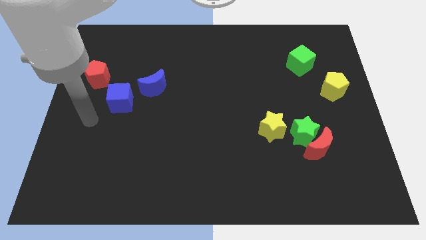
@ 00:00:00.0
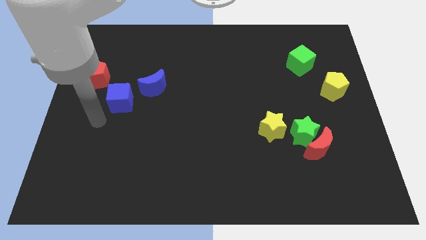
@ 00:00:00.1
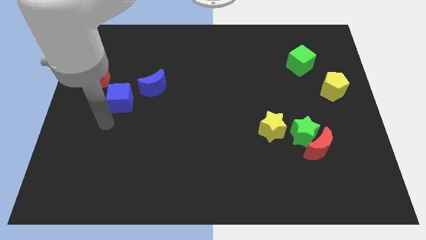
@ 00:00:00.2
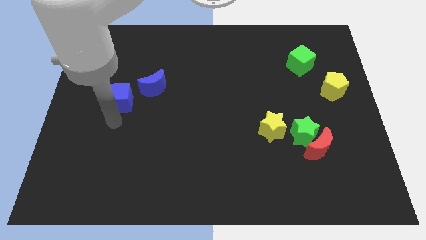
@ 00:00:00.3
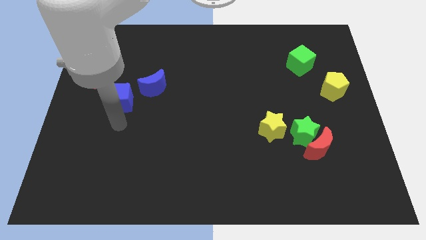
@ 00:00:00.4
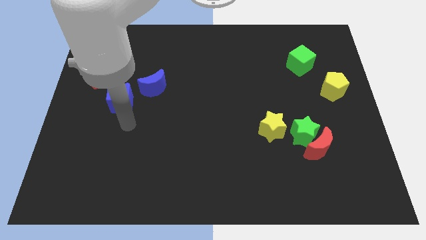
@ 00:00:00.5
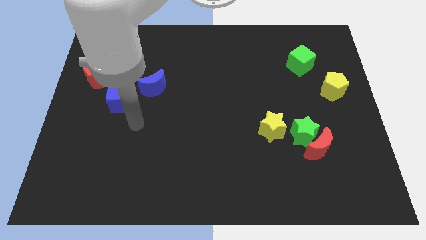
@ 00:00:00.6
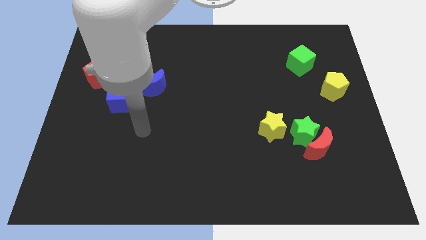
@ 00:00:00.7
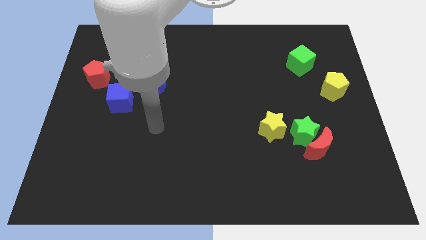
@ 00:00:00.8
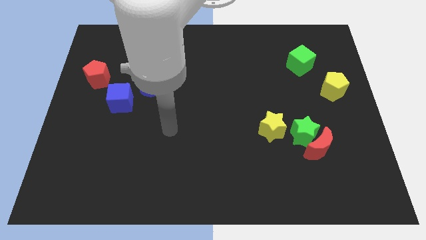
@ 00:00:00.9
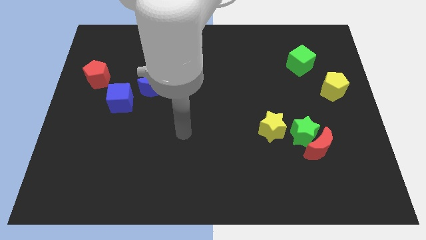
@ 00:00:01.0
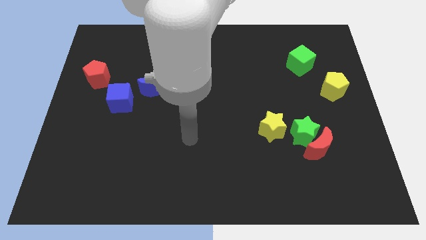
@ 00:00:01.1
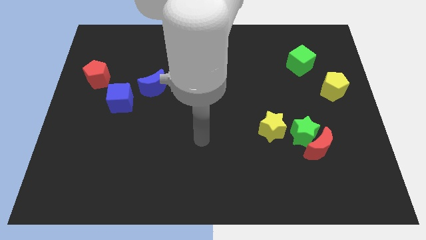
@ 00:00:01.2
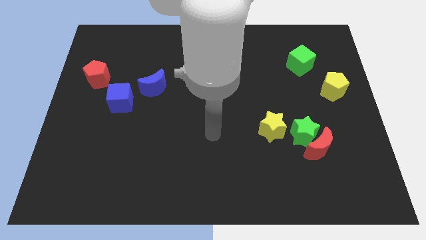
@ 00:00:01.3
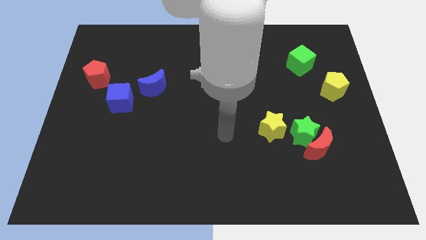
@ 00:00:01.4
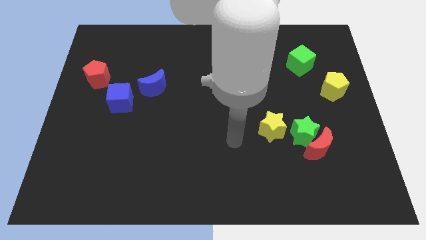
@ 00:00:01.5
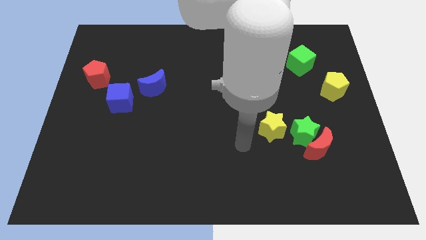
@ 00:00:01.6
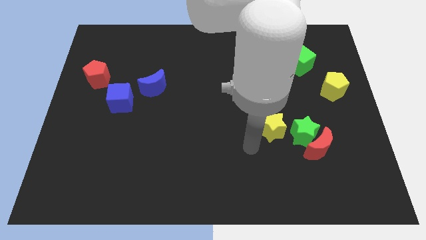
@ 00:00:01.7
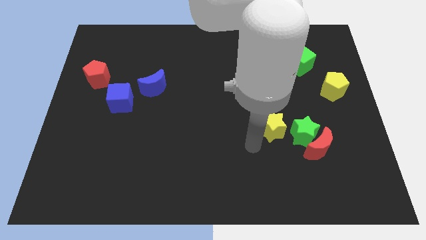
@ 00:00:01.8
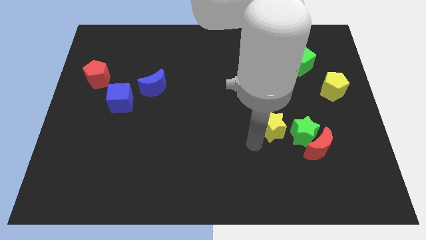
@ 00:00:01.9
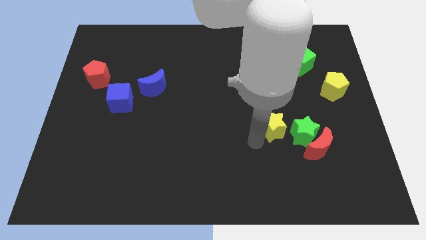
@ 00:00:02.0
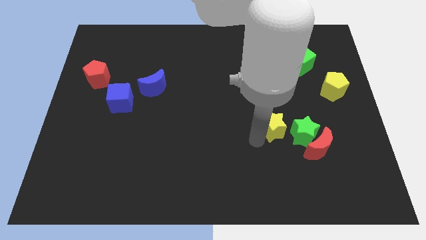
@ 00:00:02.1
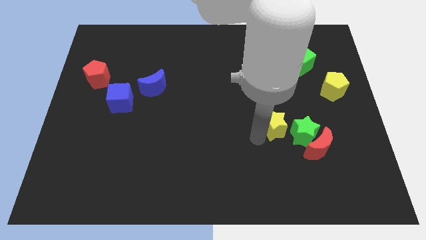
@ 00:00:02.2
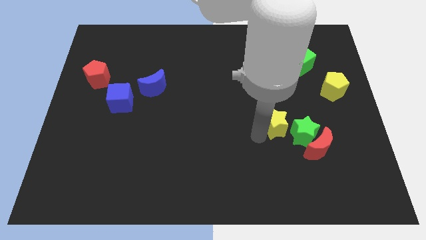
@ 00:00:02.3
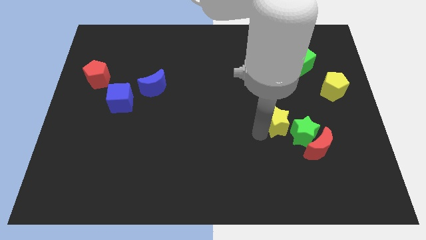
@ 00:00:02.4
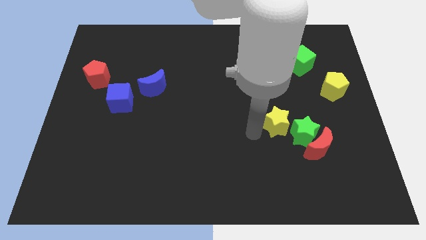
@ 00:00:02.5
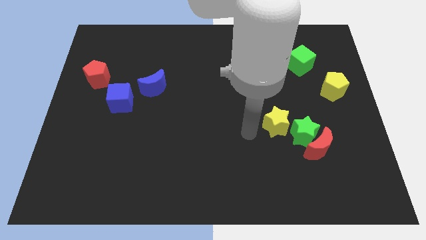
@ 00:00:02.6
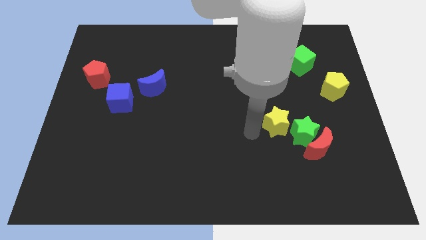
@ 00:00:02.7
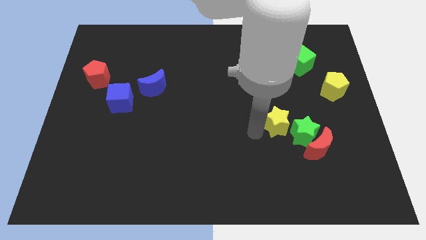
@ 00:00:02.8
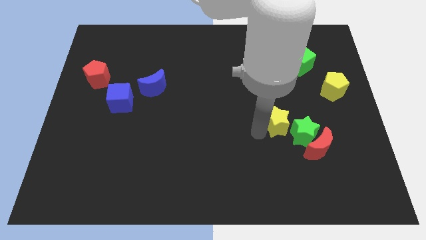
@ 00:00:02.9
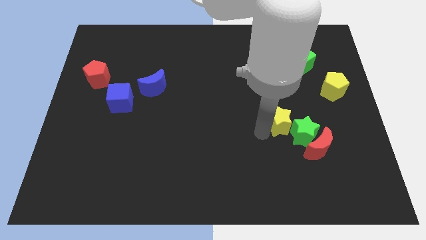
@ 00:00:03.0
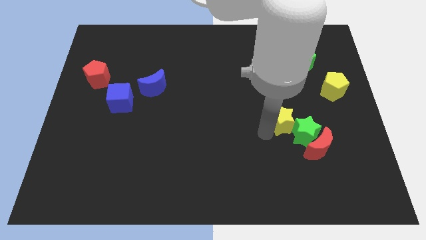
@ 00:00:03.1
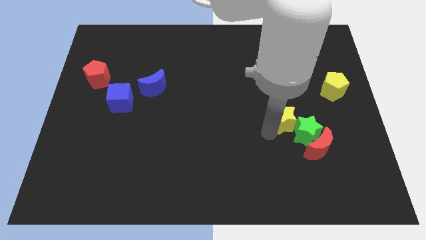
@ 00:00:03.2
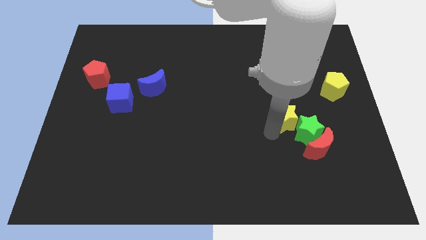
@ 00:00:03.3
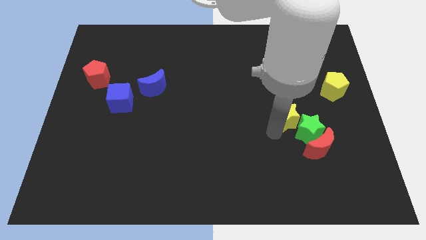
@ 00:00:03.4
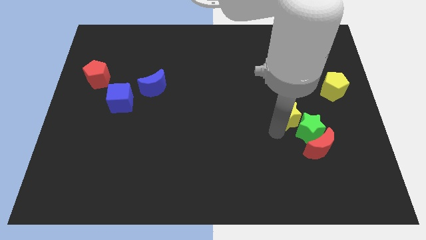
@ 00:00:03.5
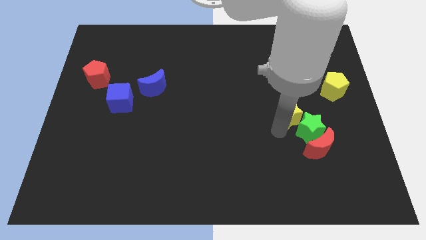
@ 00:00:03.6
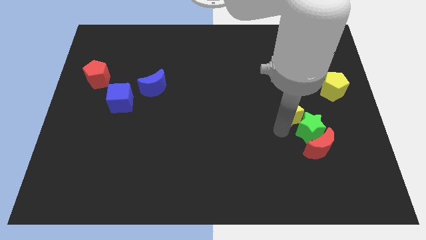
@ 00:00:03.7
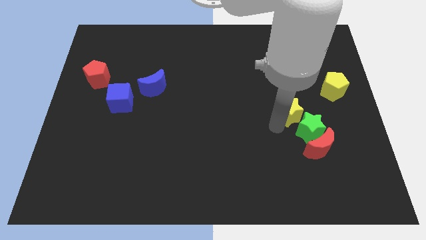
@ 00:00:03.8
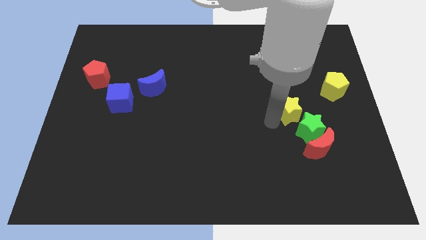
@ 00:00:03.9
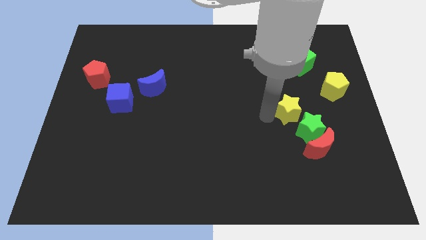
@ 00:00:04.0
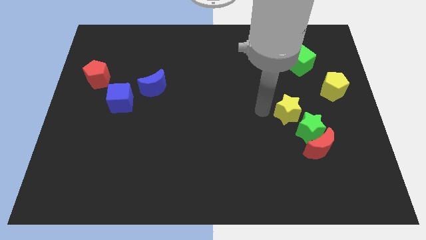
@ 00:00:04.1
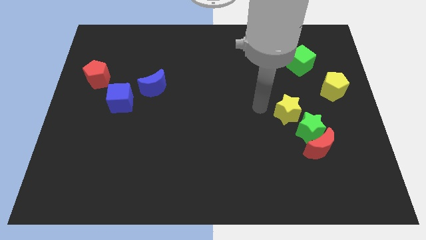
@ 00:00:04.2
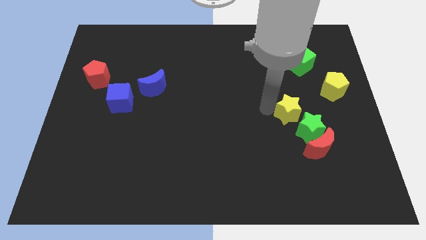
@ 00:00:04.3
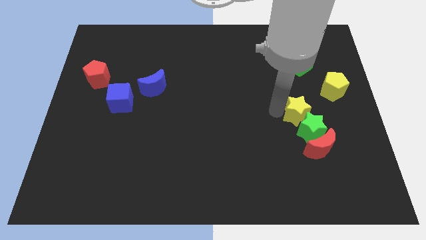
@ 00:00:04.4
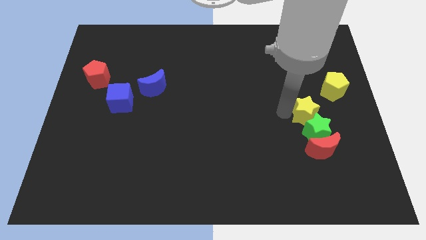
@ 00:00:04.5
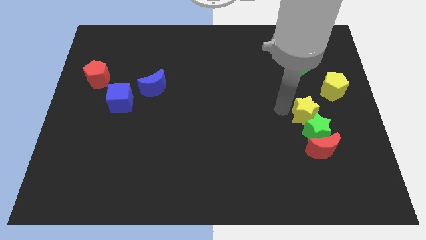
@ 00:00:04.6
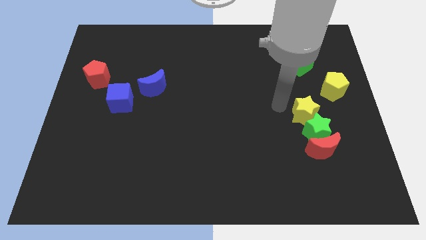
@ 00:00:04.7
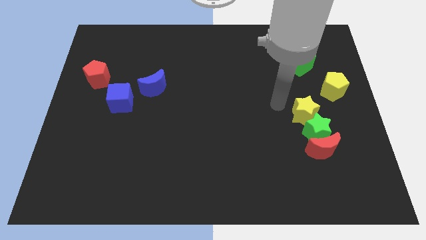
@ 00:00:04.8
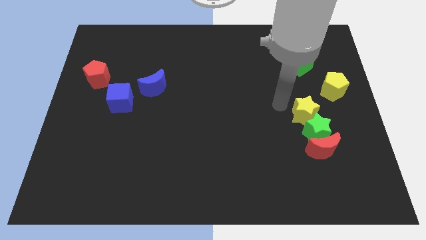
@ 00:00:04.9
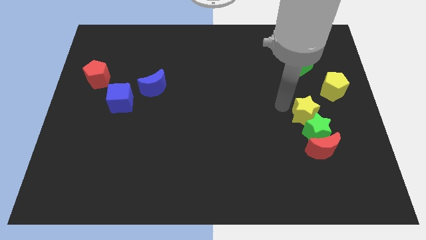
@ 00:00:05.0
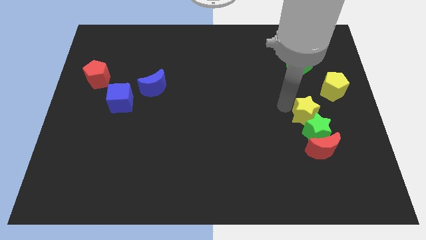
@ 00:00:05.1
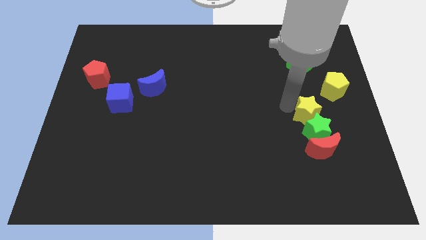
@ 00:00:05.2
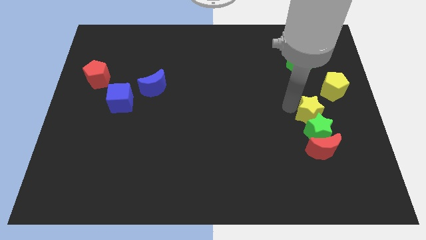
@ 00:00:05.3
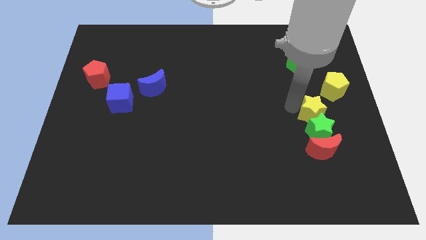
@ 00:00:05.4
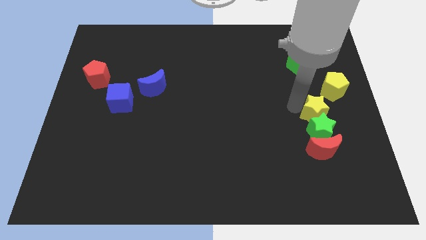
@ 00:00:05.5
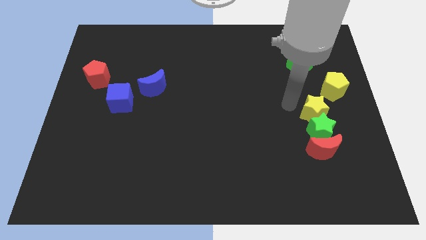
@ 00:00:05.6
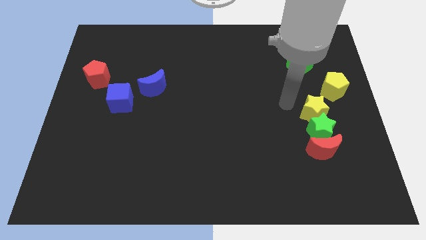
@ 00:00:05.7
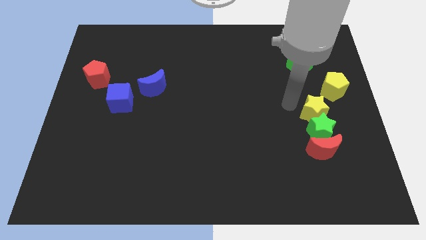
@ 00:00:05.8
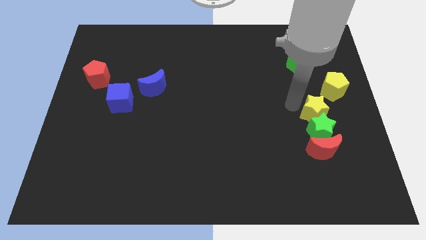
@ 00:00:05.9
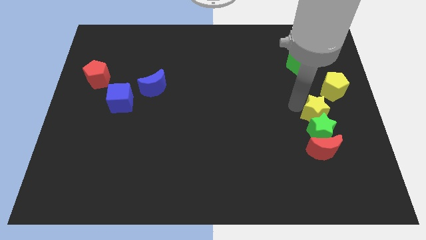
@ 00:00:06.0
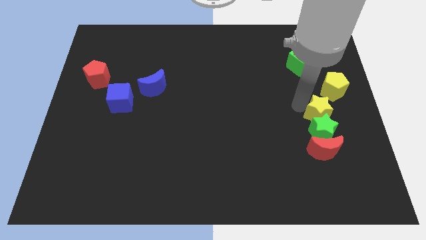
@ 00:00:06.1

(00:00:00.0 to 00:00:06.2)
push the yellow star to the bottom side of the yellow pentagon

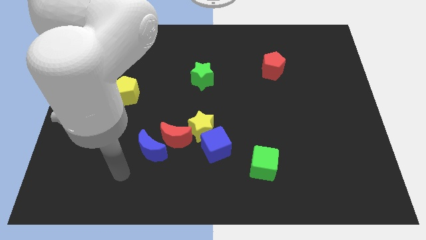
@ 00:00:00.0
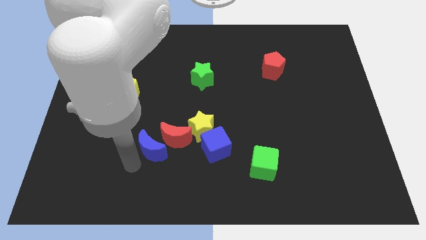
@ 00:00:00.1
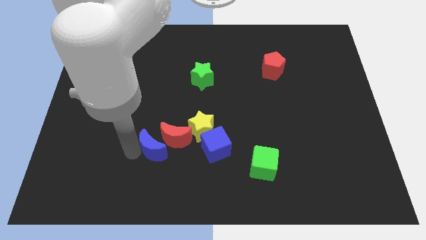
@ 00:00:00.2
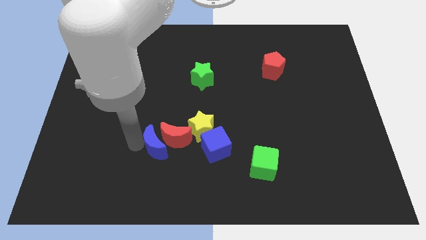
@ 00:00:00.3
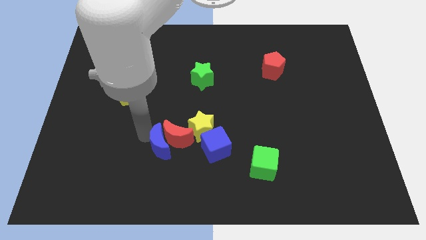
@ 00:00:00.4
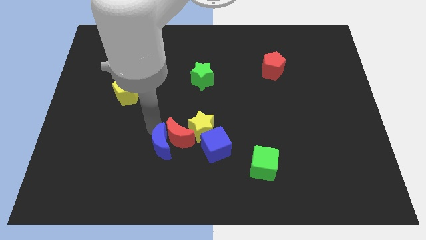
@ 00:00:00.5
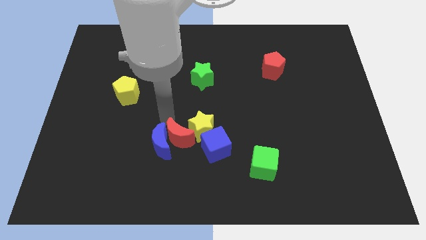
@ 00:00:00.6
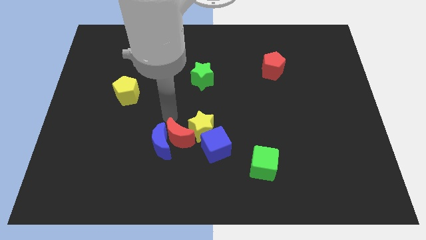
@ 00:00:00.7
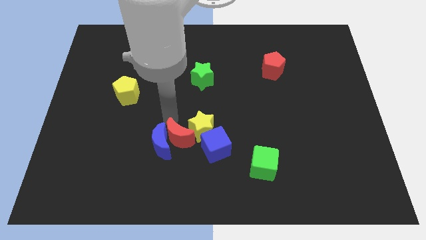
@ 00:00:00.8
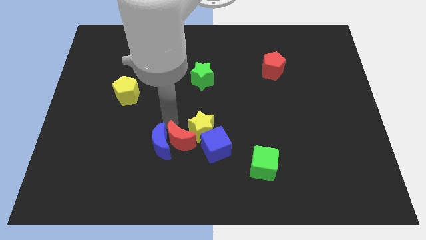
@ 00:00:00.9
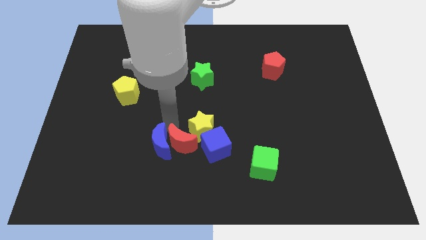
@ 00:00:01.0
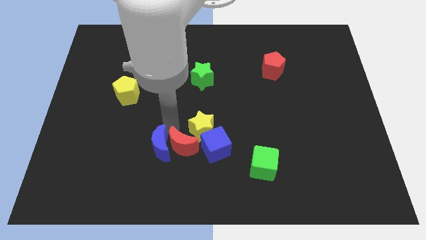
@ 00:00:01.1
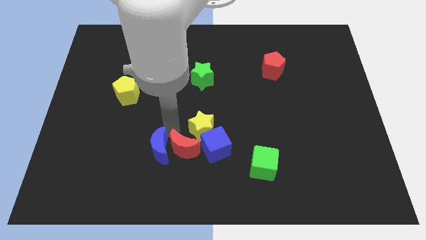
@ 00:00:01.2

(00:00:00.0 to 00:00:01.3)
push the red moon diagonally down and to the left of the blue cube
